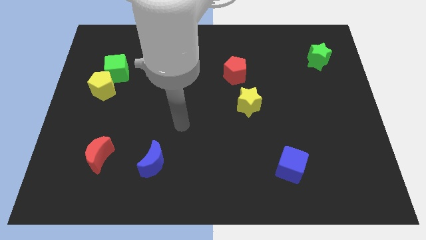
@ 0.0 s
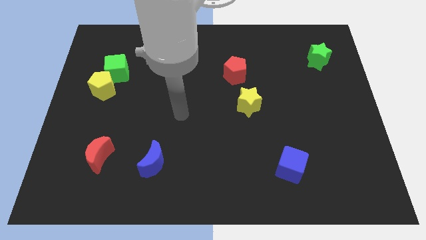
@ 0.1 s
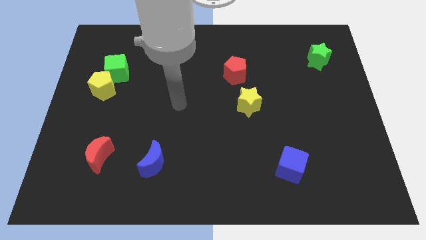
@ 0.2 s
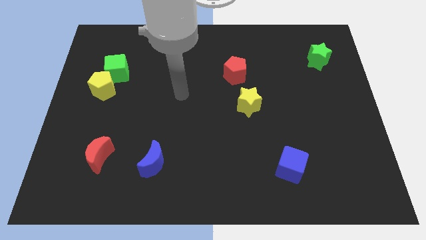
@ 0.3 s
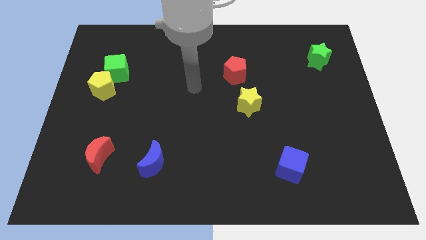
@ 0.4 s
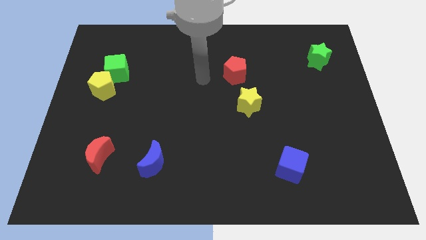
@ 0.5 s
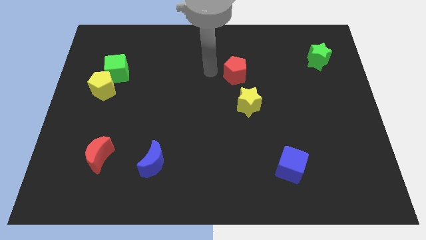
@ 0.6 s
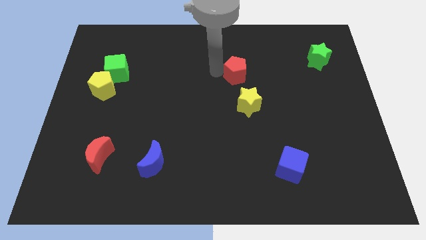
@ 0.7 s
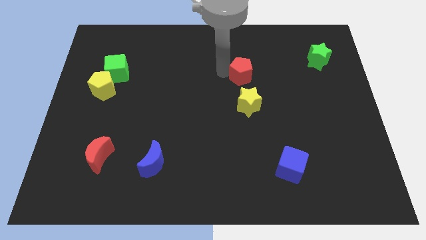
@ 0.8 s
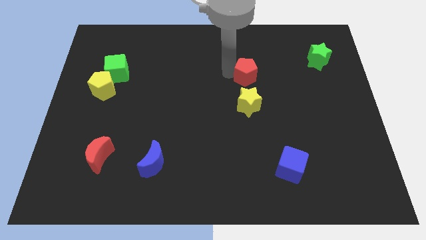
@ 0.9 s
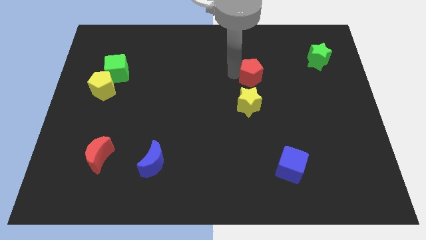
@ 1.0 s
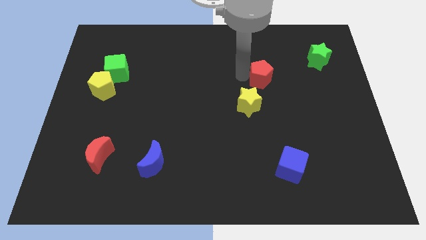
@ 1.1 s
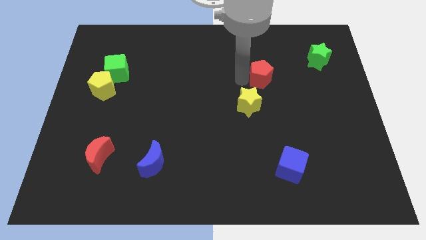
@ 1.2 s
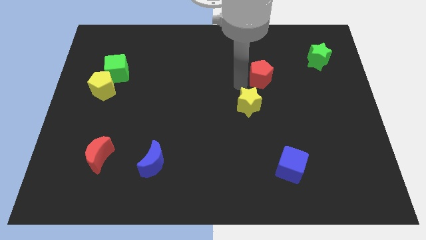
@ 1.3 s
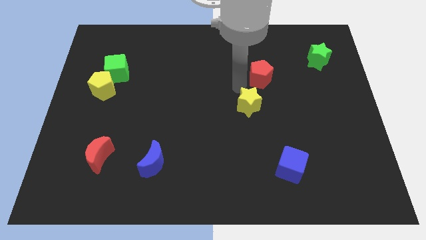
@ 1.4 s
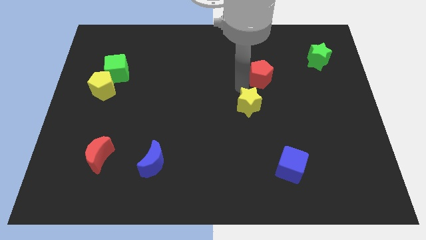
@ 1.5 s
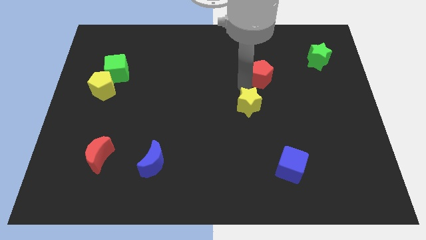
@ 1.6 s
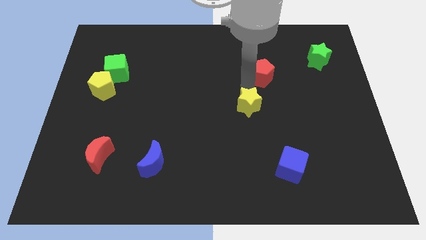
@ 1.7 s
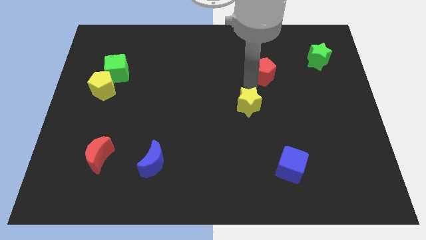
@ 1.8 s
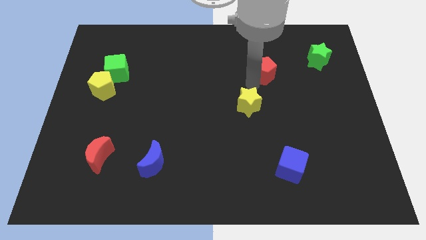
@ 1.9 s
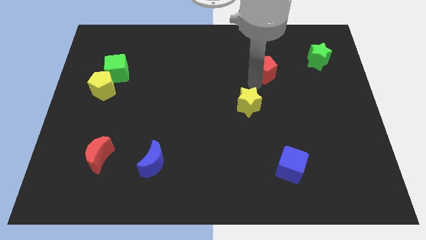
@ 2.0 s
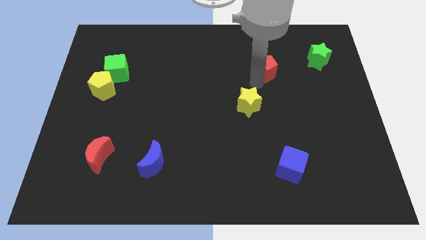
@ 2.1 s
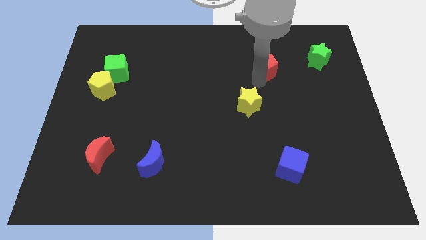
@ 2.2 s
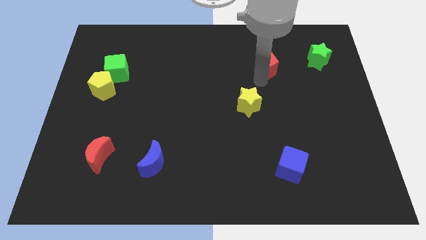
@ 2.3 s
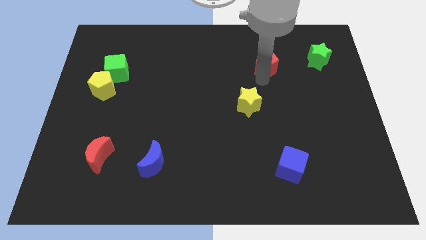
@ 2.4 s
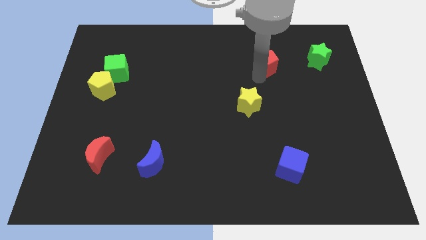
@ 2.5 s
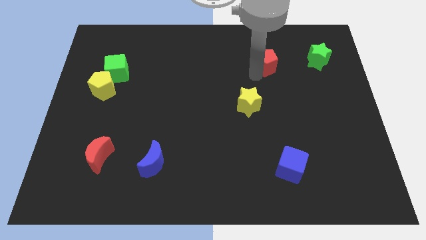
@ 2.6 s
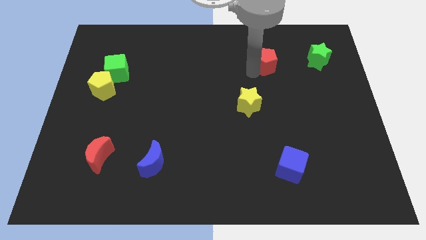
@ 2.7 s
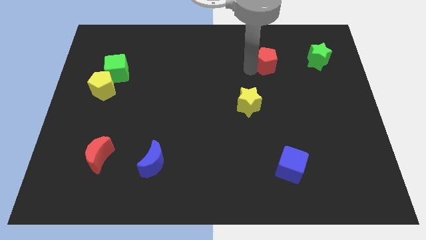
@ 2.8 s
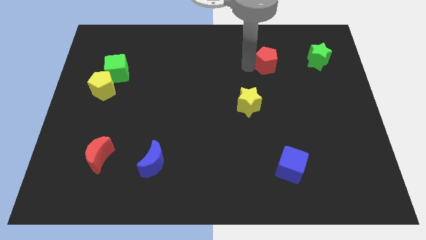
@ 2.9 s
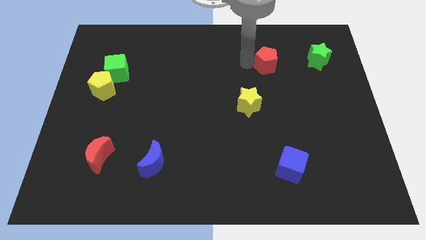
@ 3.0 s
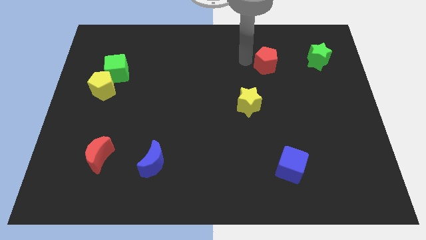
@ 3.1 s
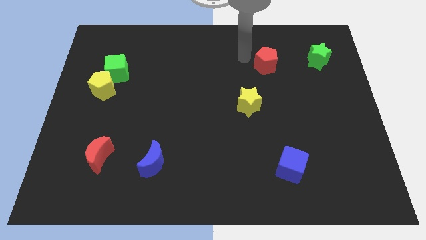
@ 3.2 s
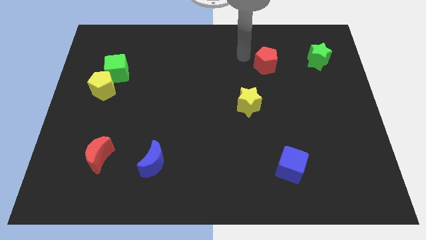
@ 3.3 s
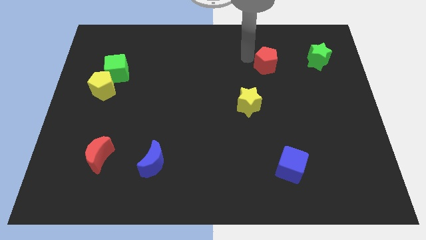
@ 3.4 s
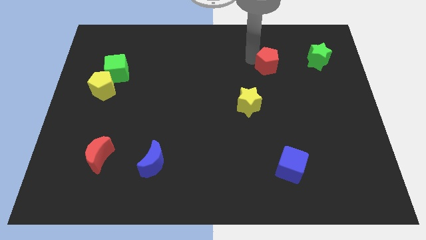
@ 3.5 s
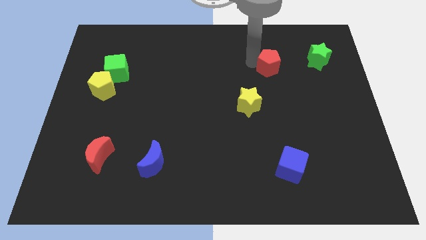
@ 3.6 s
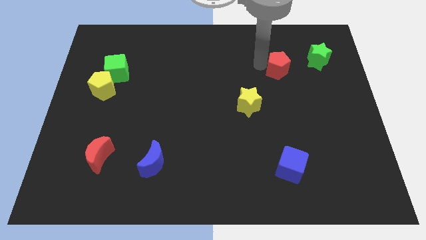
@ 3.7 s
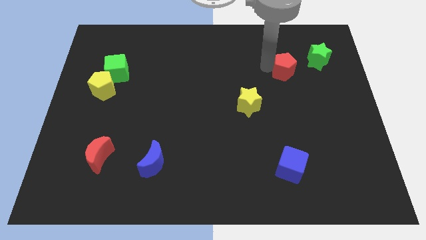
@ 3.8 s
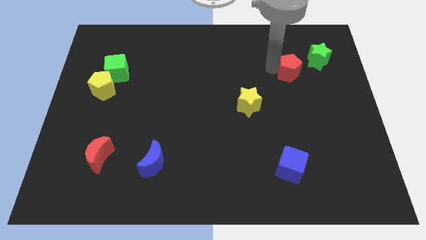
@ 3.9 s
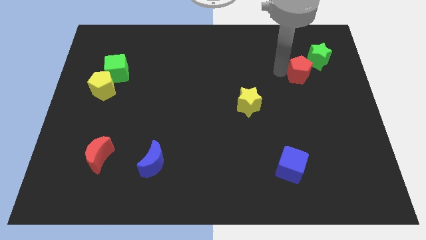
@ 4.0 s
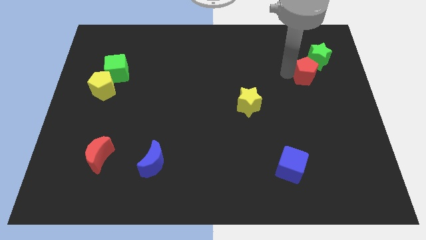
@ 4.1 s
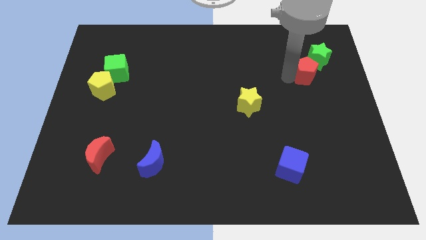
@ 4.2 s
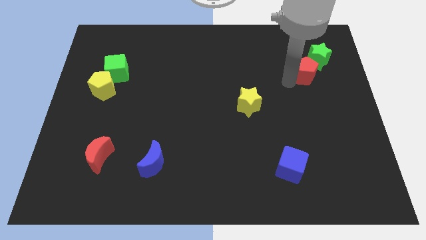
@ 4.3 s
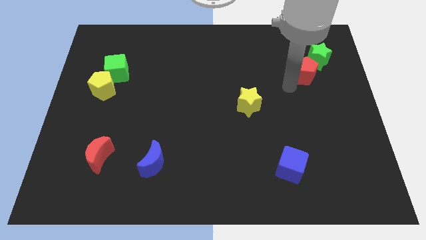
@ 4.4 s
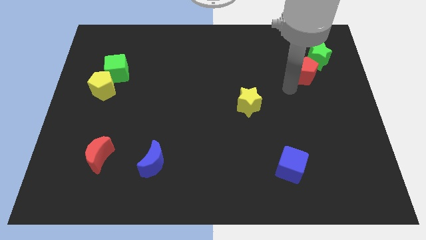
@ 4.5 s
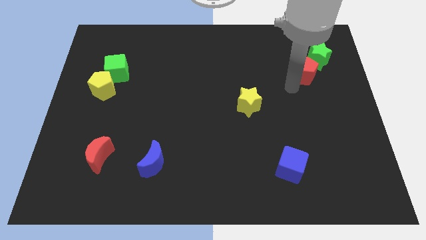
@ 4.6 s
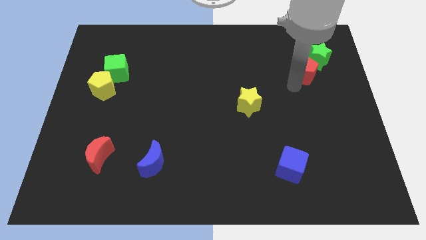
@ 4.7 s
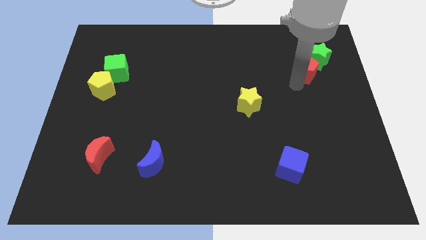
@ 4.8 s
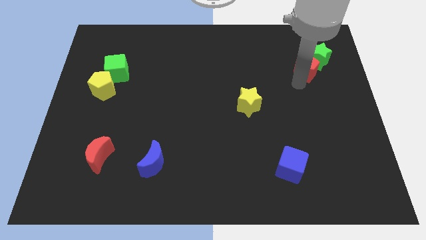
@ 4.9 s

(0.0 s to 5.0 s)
push the red pentagon towards the green star

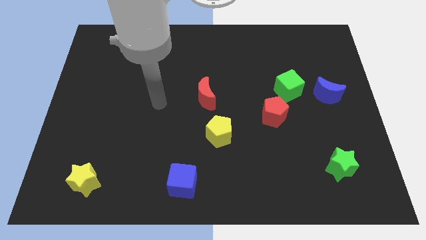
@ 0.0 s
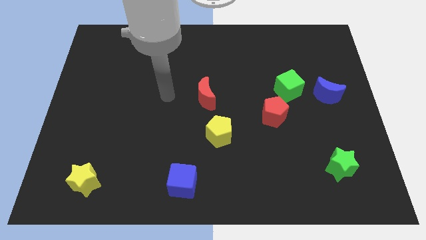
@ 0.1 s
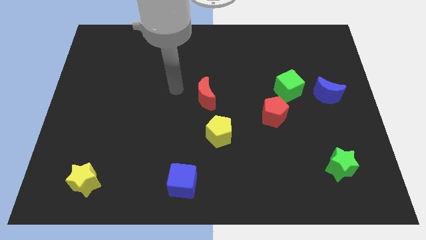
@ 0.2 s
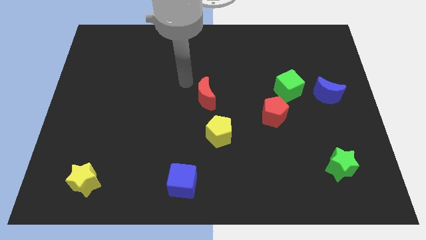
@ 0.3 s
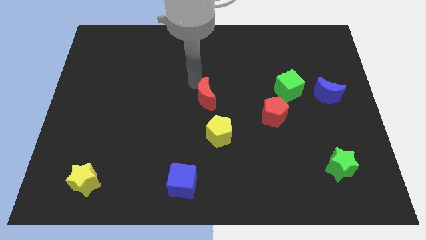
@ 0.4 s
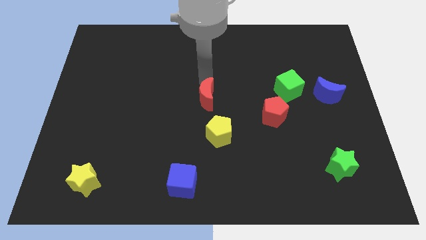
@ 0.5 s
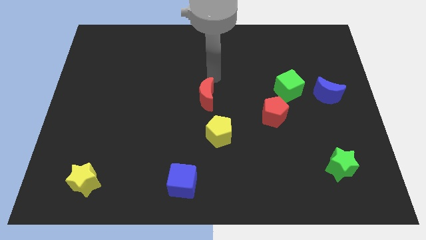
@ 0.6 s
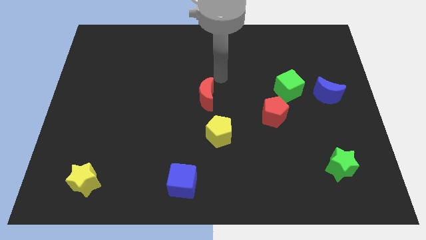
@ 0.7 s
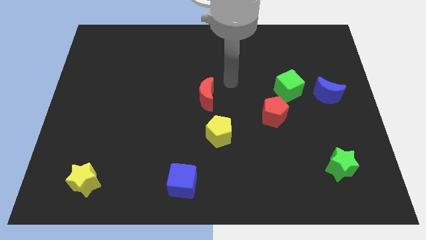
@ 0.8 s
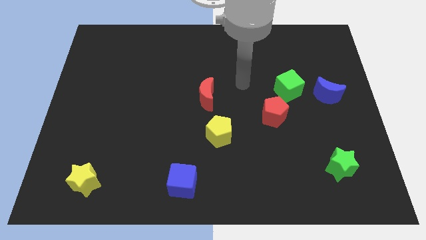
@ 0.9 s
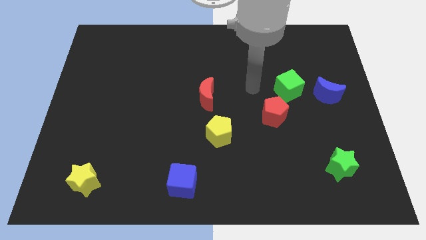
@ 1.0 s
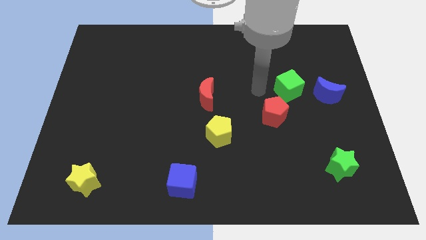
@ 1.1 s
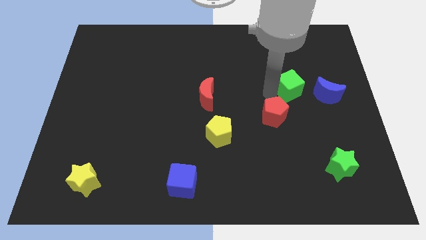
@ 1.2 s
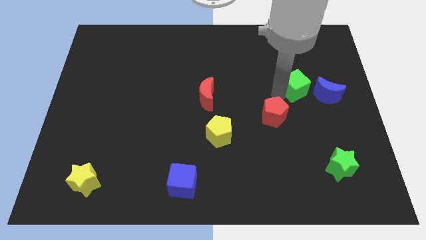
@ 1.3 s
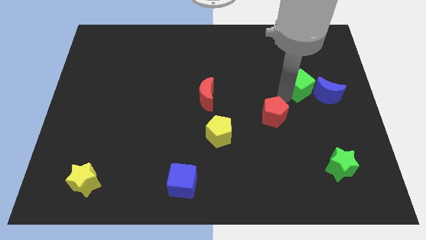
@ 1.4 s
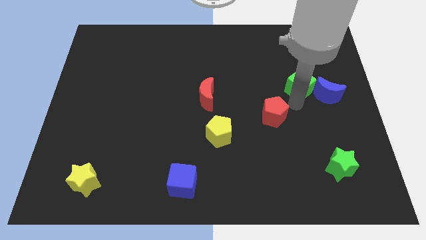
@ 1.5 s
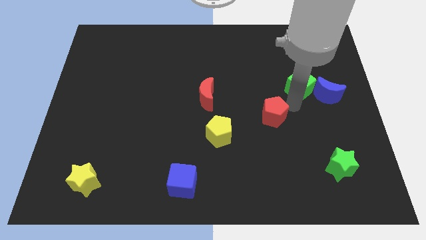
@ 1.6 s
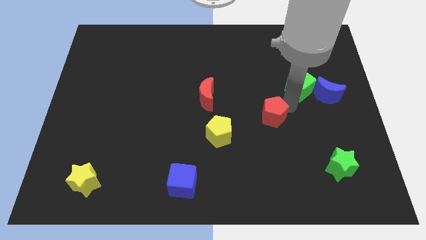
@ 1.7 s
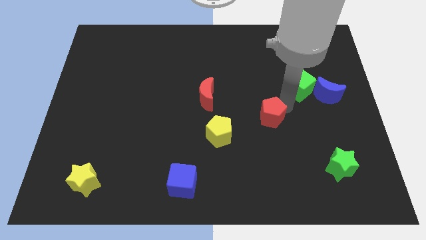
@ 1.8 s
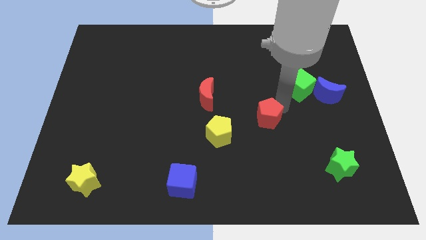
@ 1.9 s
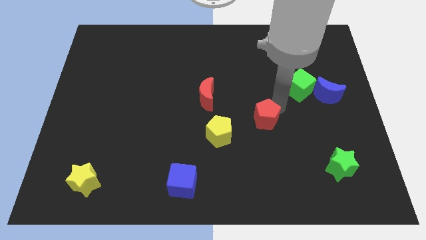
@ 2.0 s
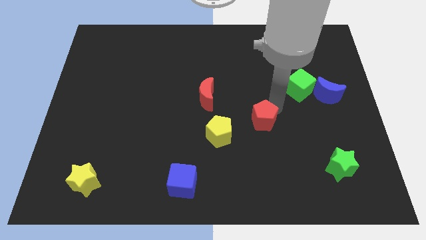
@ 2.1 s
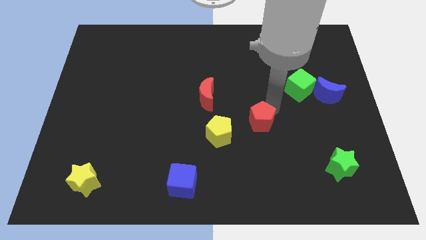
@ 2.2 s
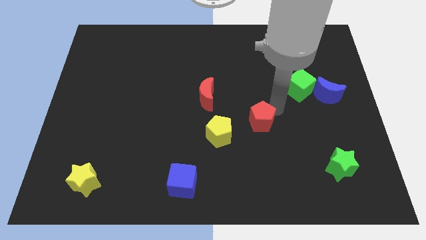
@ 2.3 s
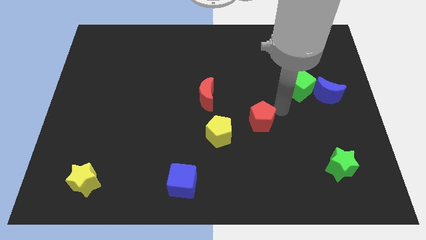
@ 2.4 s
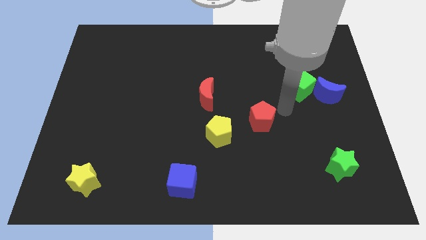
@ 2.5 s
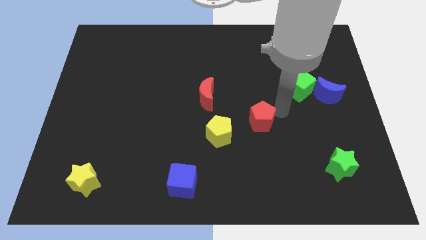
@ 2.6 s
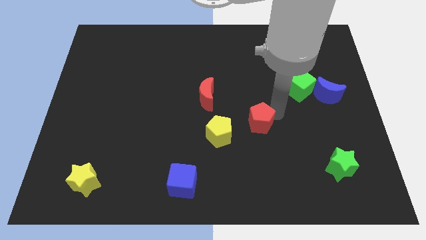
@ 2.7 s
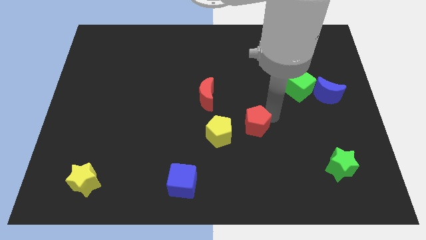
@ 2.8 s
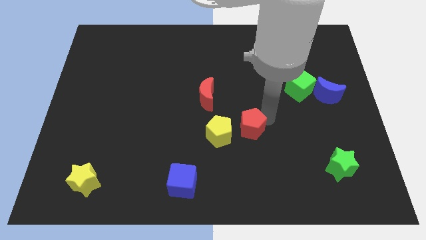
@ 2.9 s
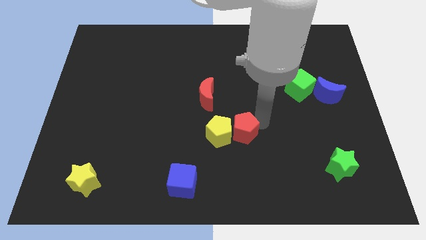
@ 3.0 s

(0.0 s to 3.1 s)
put the red pentagon close to the yellow pentagon
